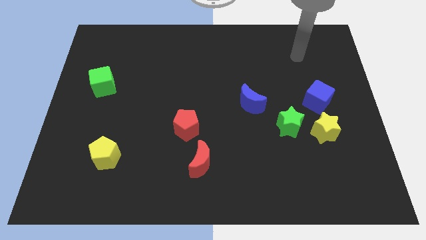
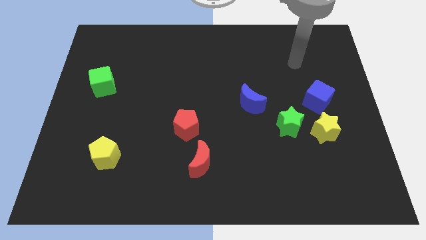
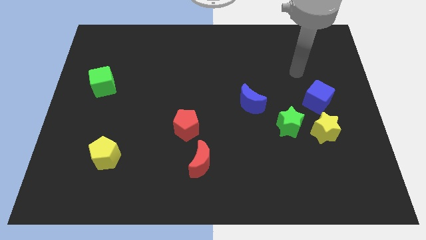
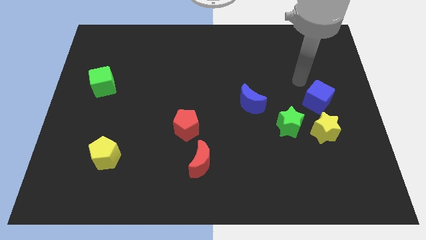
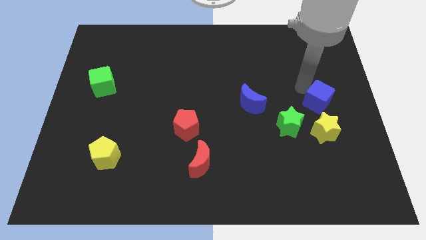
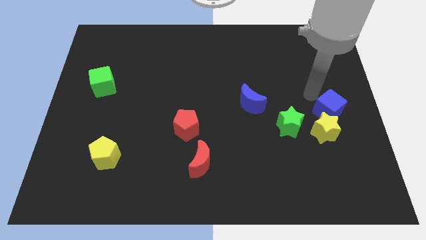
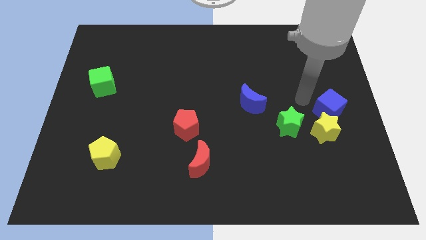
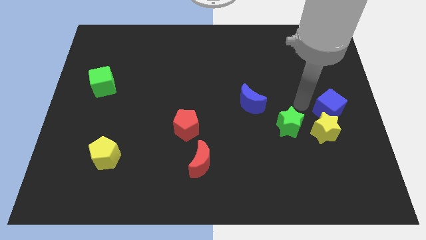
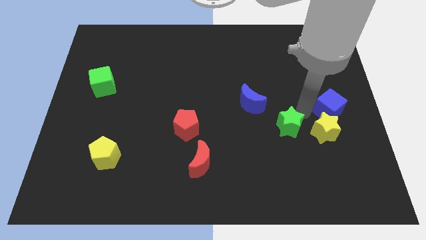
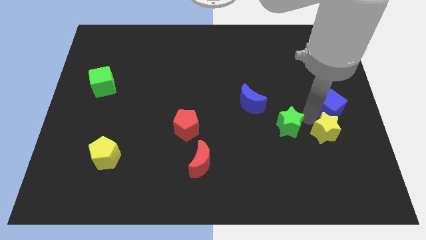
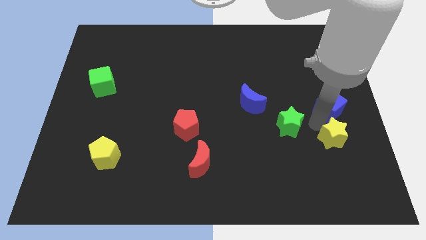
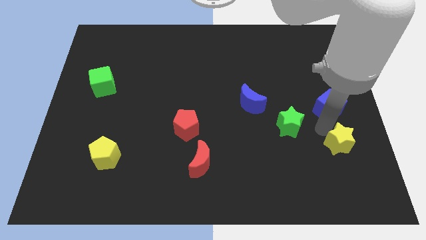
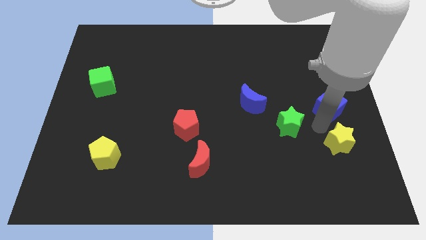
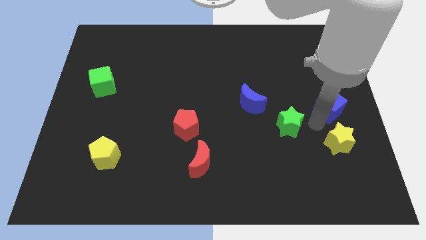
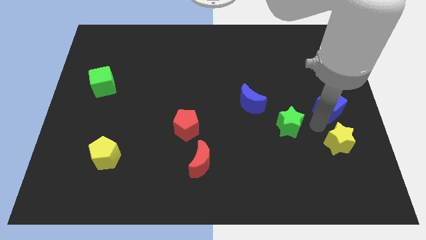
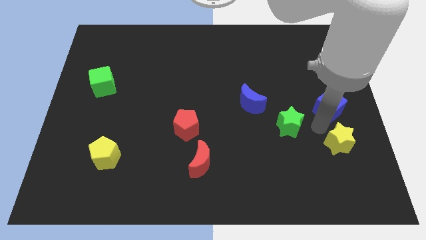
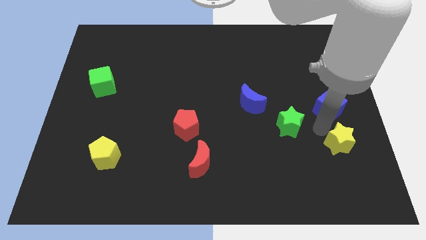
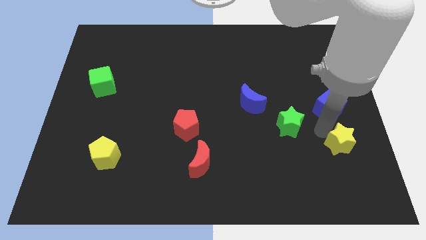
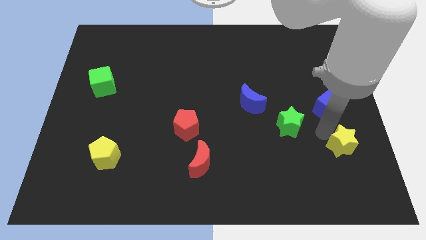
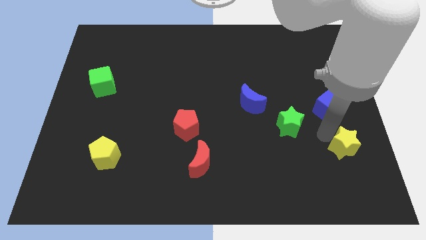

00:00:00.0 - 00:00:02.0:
separate the yellow star from the green star and blue cube

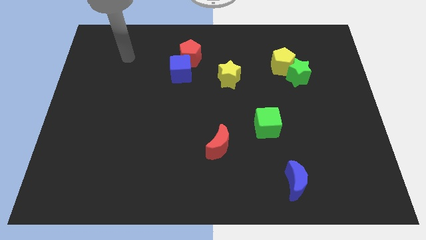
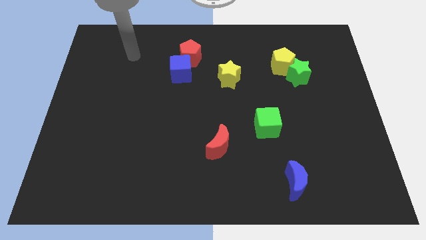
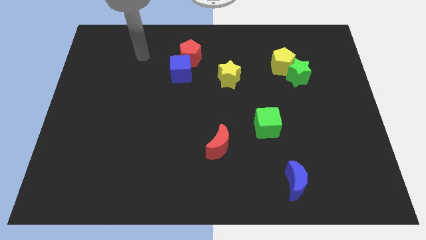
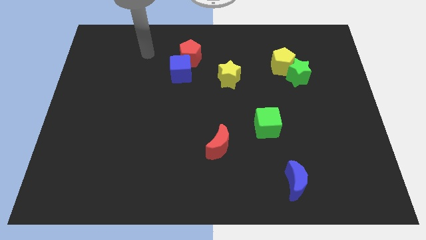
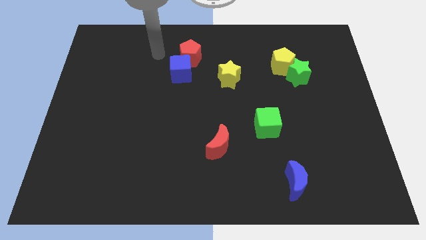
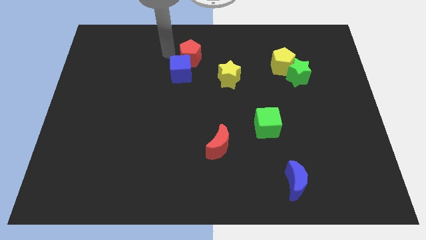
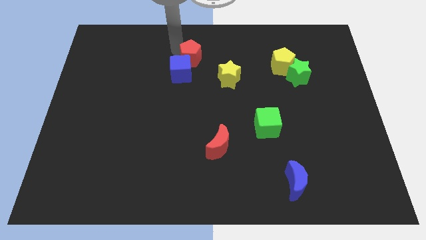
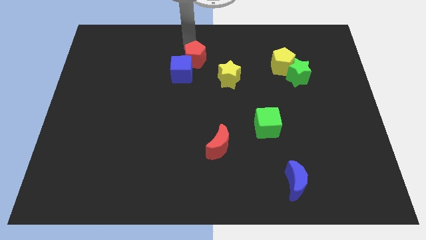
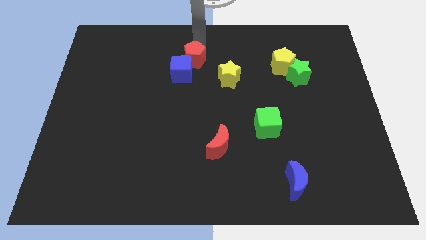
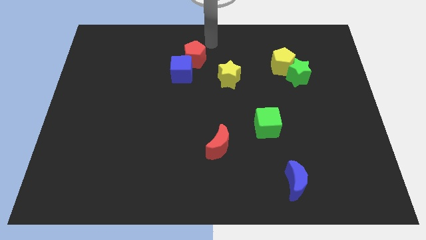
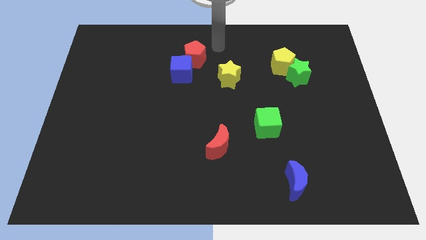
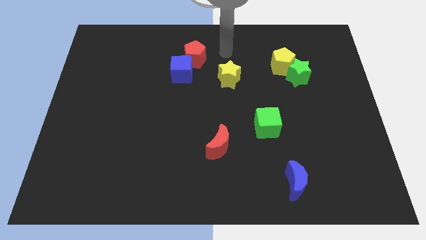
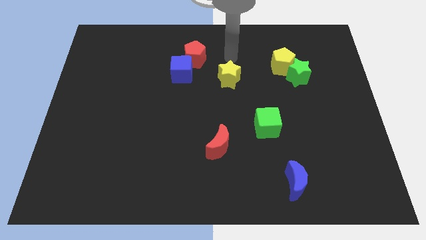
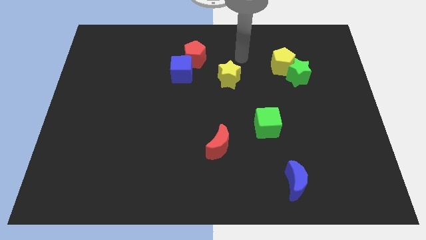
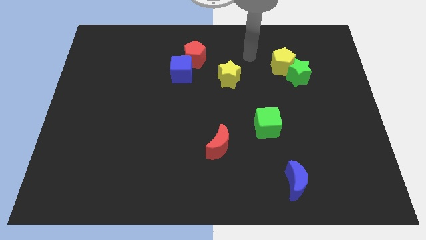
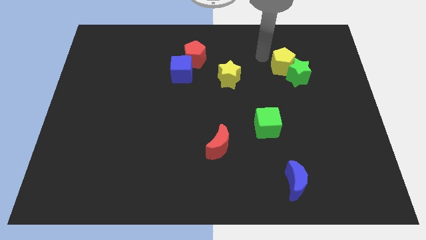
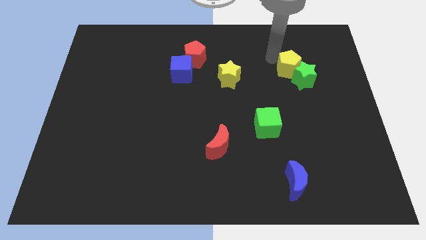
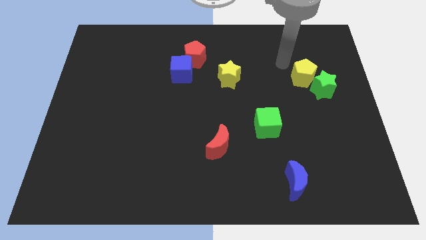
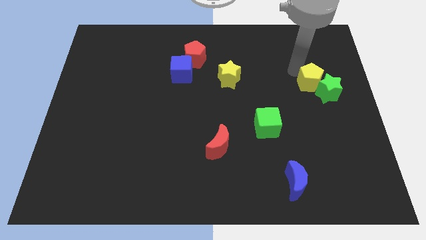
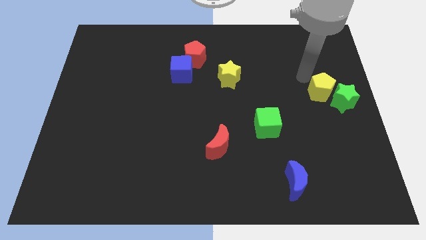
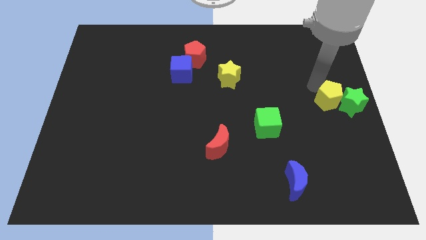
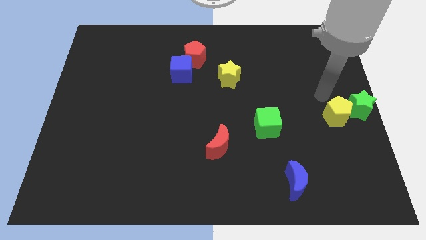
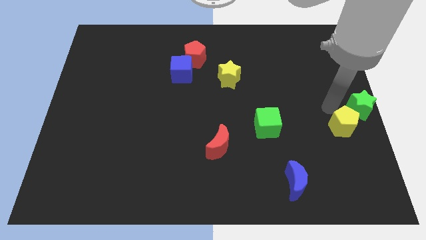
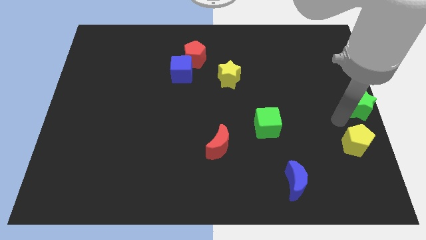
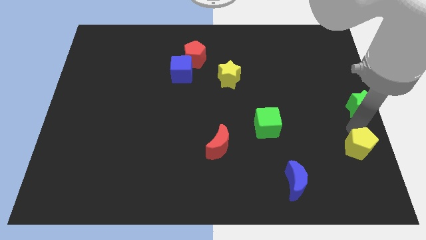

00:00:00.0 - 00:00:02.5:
pull the green star apart from the yellow pentagon

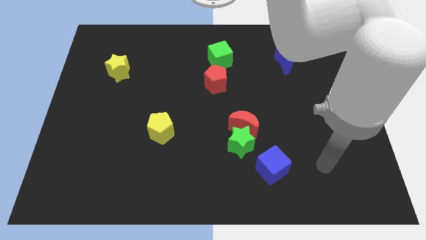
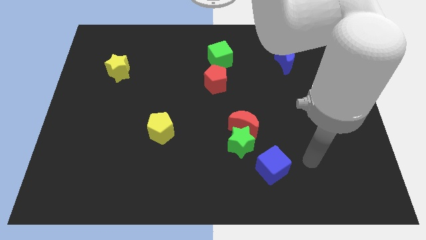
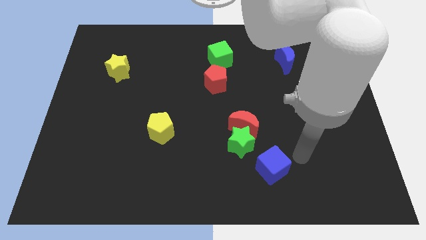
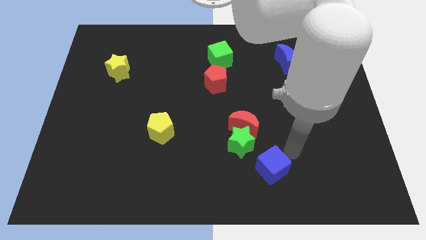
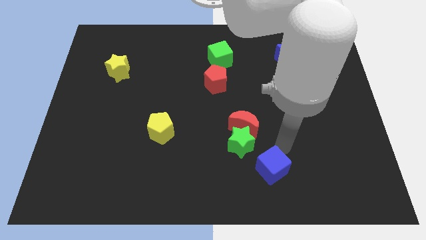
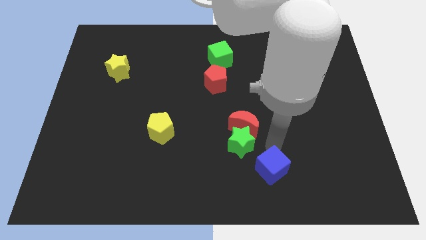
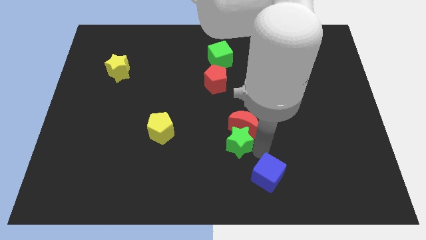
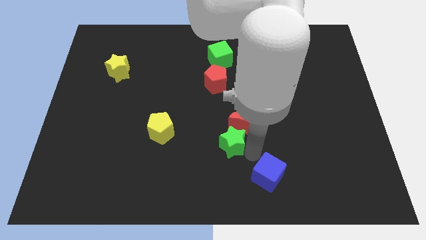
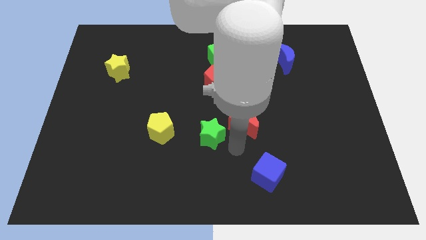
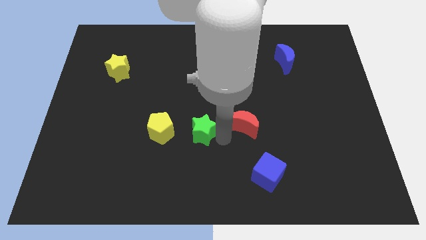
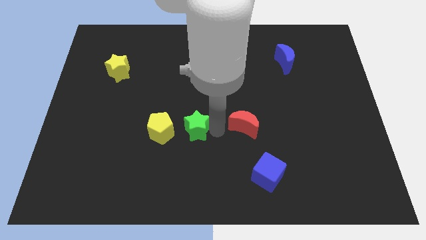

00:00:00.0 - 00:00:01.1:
move the red moon away from the green star

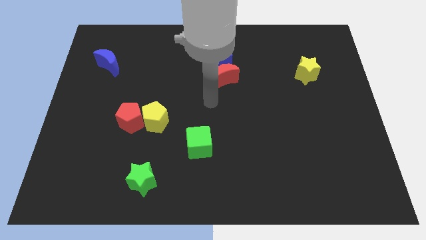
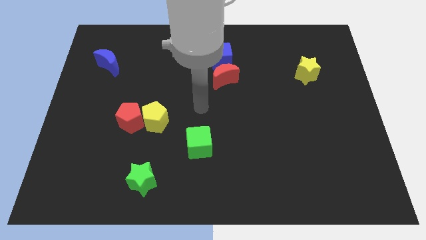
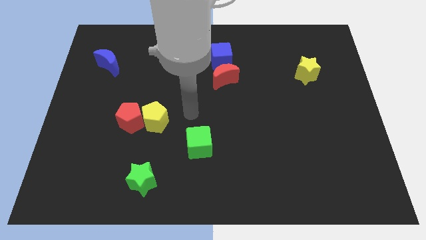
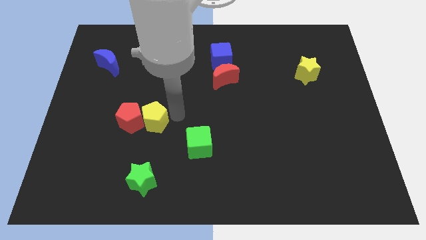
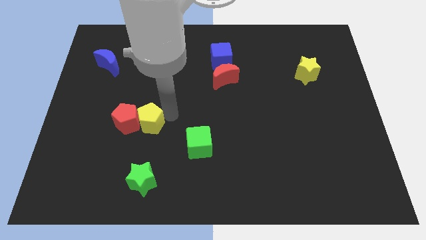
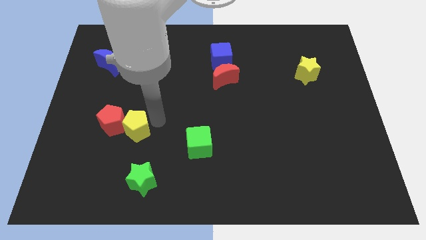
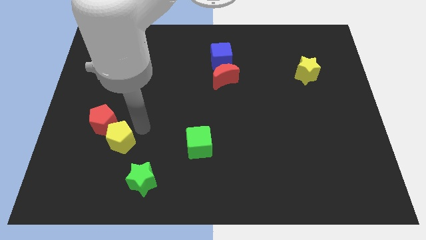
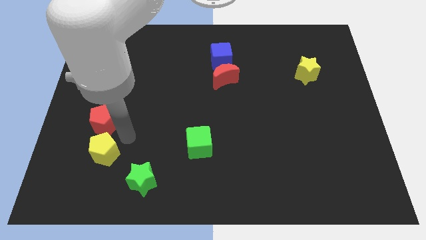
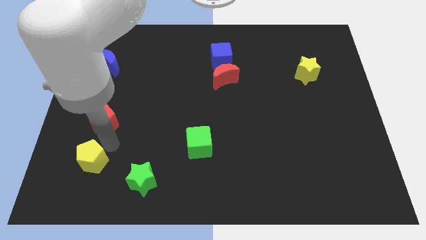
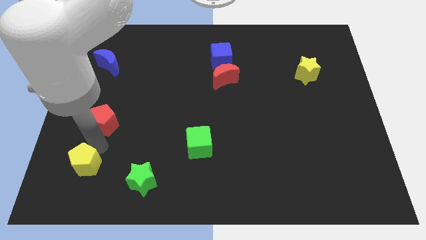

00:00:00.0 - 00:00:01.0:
pull the red pentagon apart from the yellow pentagon

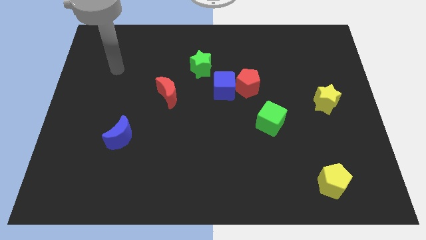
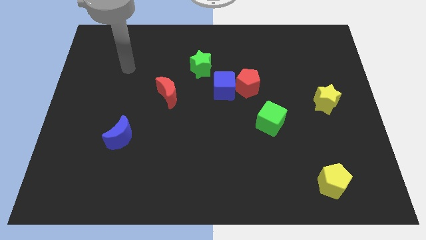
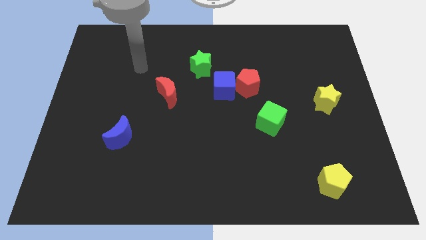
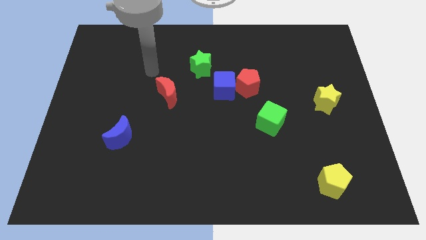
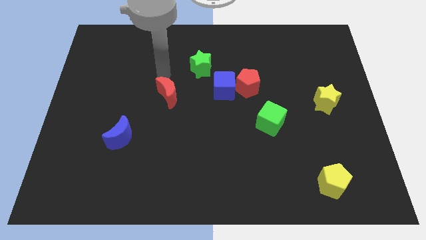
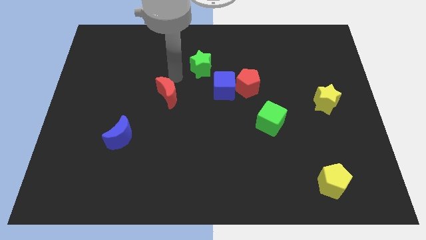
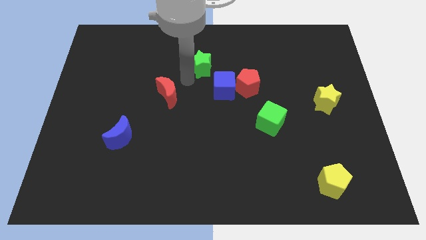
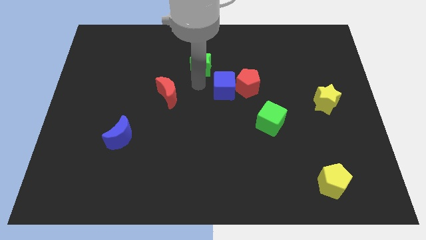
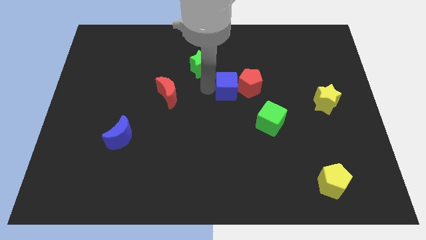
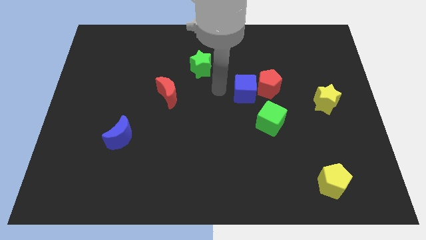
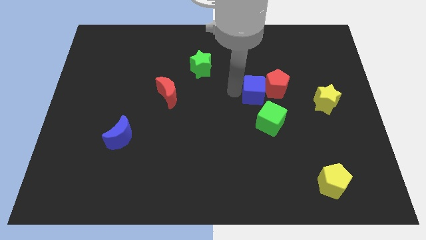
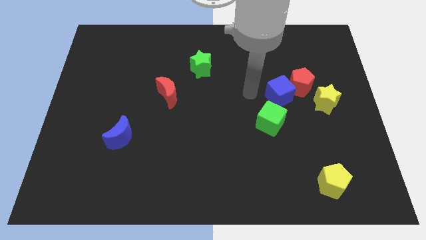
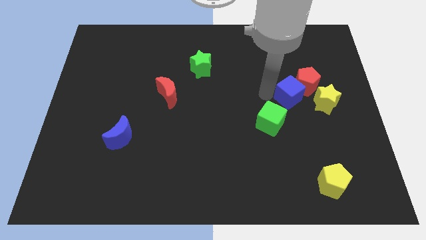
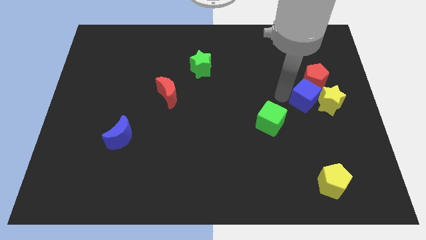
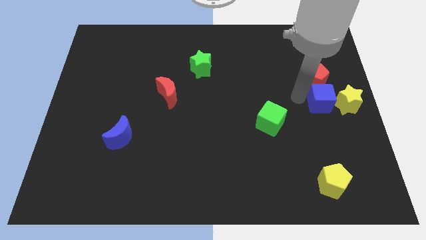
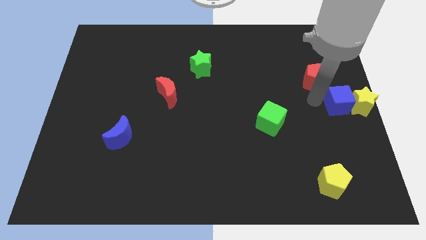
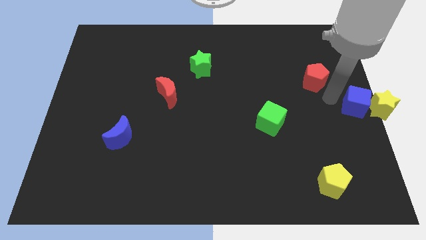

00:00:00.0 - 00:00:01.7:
move the red pentagon away from the blue cube

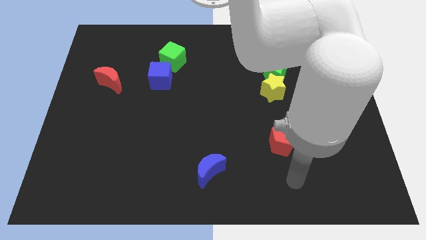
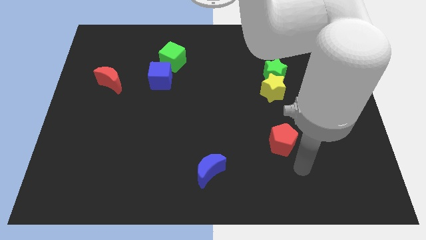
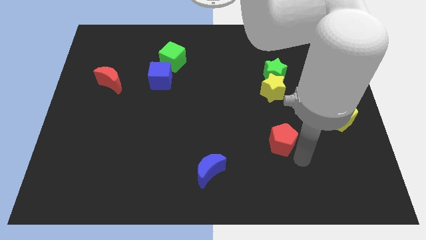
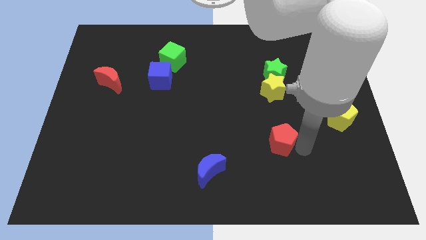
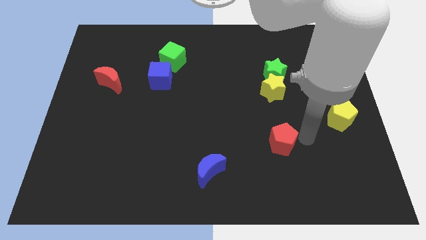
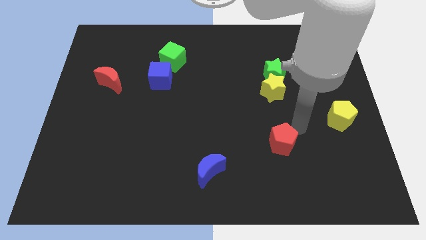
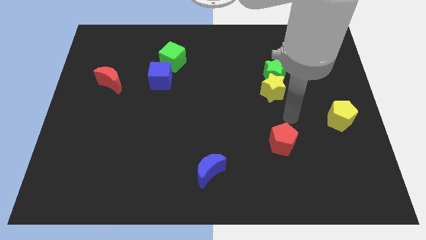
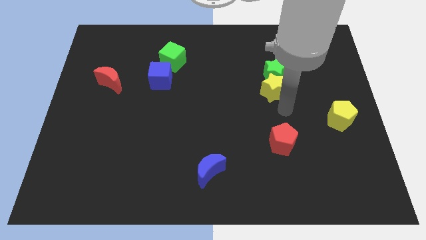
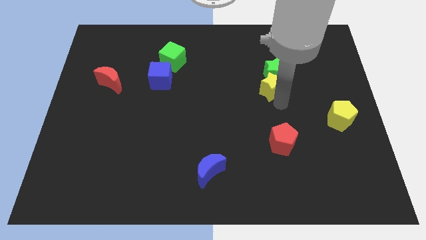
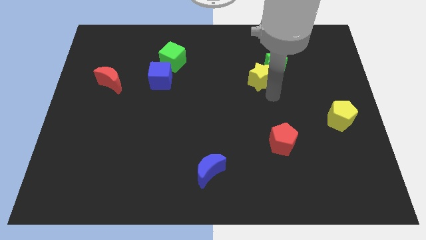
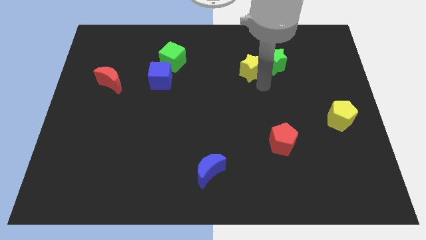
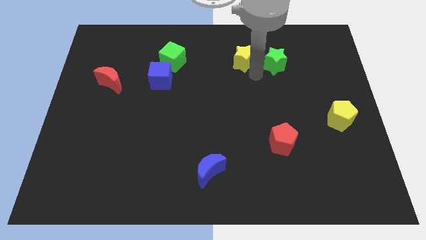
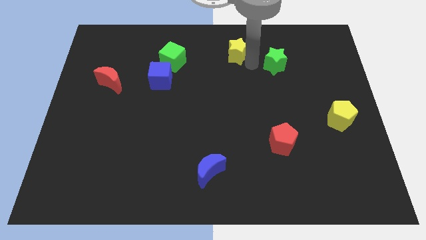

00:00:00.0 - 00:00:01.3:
separate the green star from the yellow star
